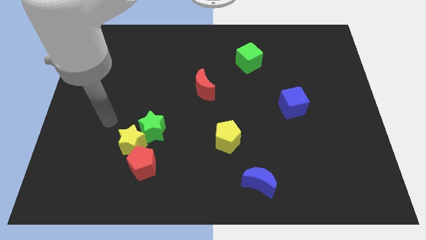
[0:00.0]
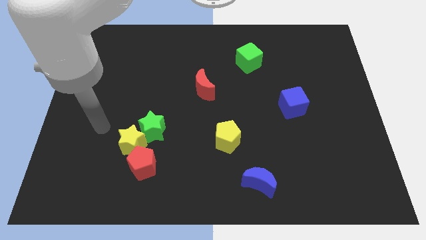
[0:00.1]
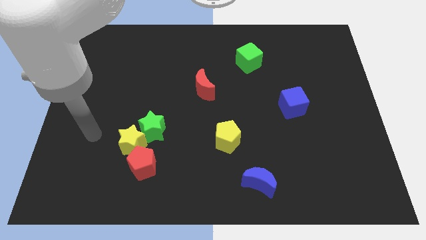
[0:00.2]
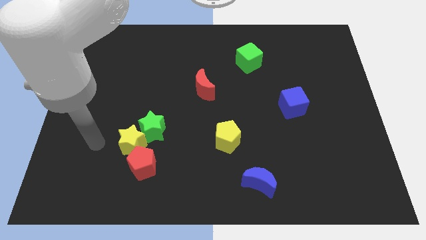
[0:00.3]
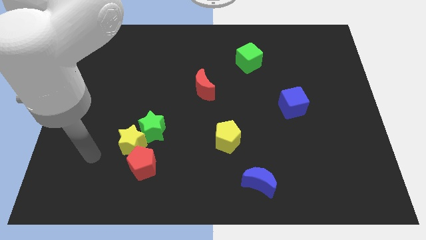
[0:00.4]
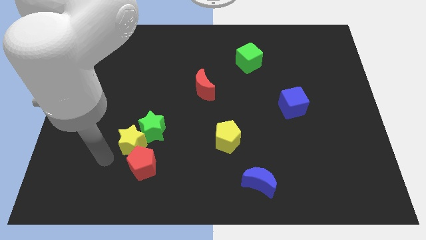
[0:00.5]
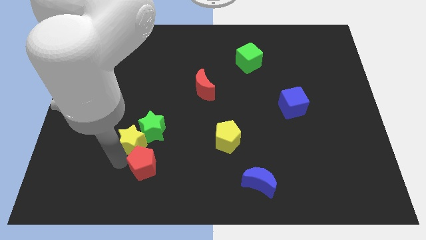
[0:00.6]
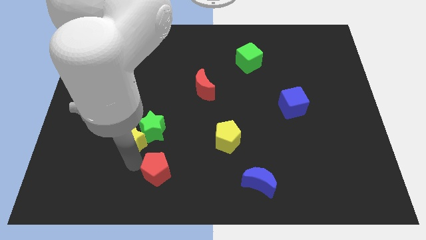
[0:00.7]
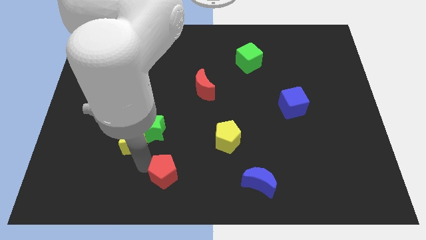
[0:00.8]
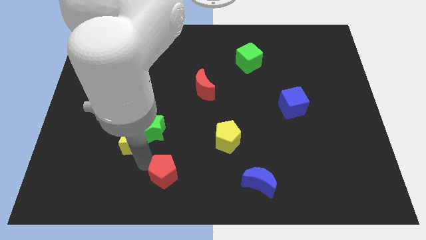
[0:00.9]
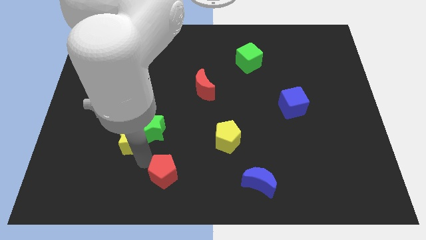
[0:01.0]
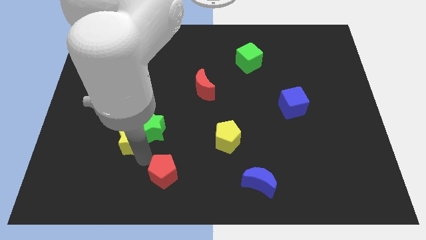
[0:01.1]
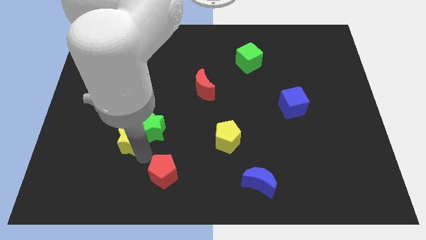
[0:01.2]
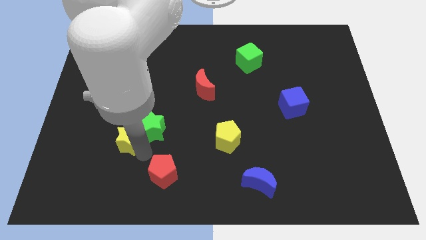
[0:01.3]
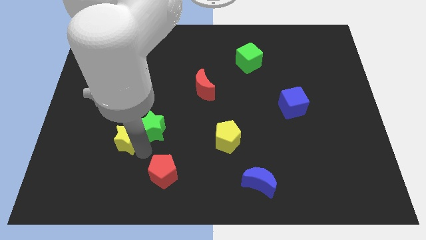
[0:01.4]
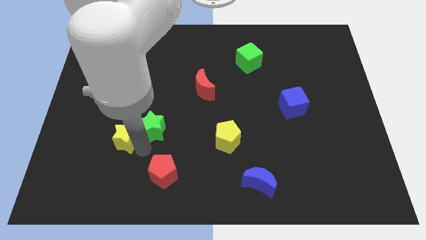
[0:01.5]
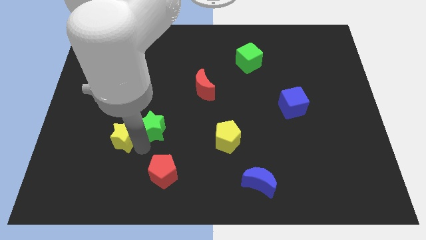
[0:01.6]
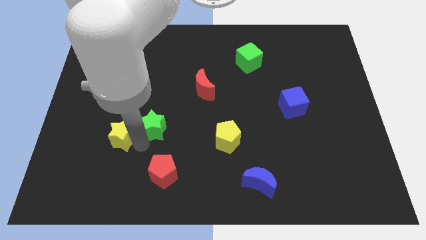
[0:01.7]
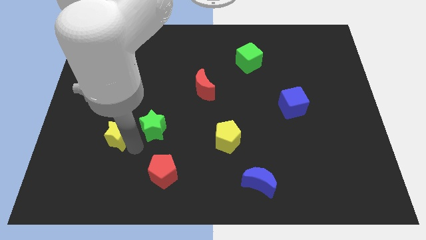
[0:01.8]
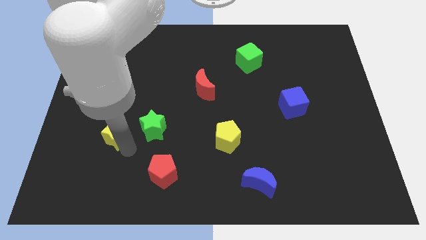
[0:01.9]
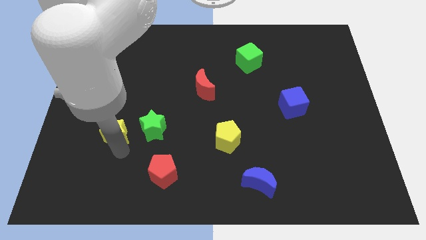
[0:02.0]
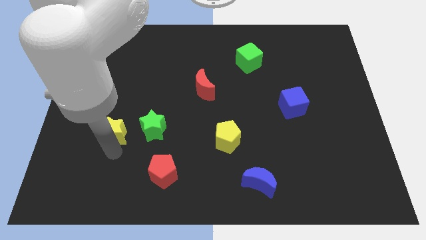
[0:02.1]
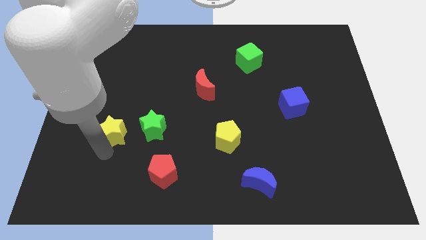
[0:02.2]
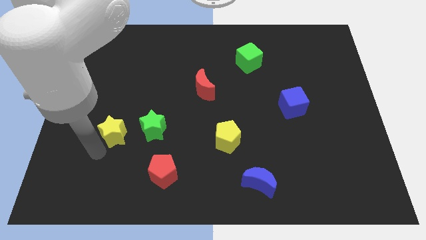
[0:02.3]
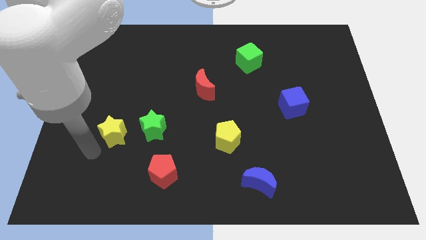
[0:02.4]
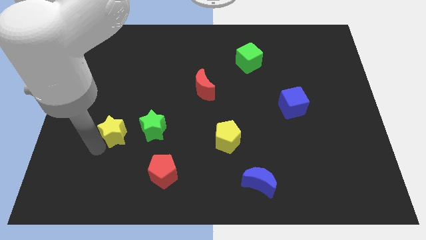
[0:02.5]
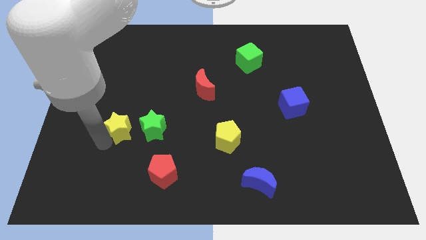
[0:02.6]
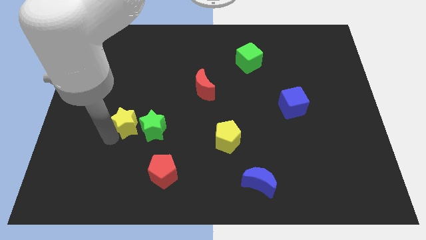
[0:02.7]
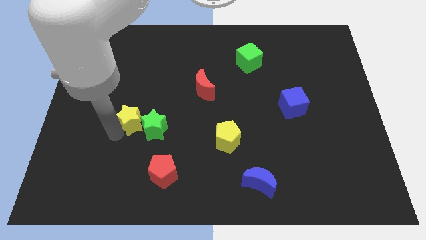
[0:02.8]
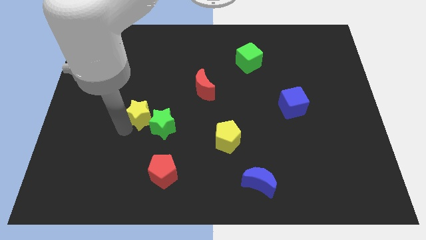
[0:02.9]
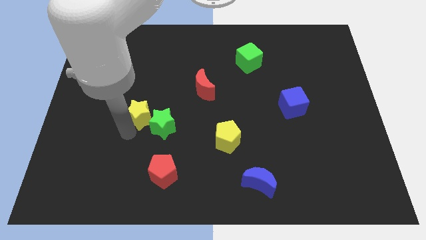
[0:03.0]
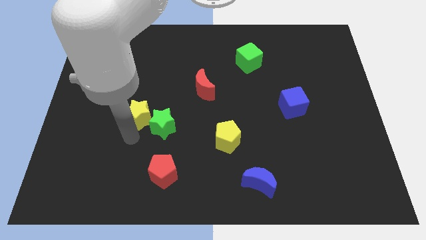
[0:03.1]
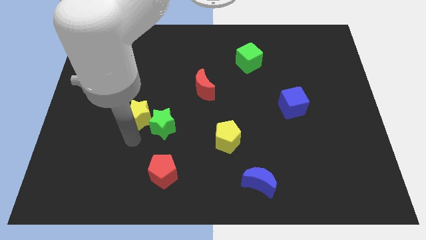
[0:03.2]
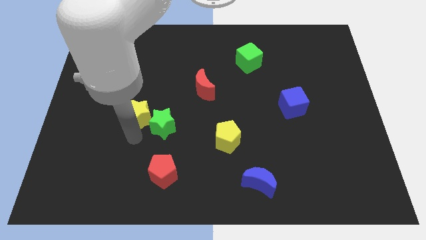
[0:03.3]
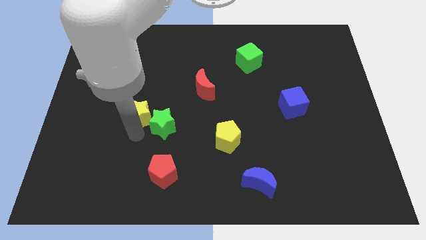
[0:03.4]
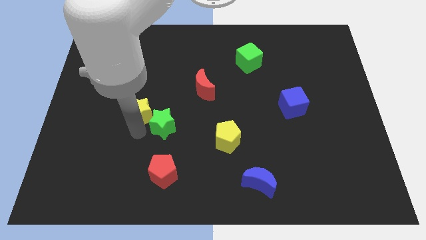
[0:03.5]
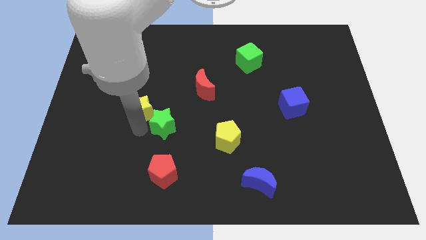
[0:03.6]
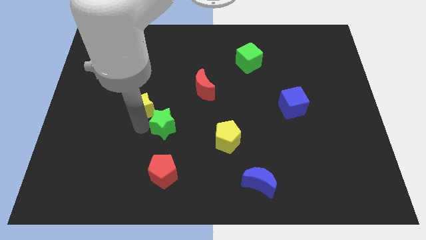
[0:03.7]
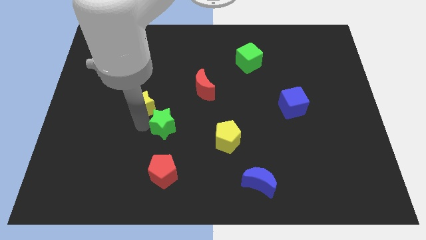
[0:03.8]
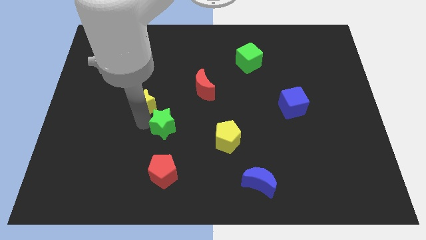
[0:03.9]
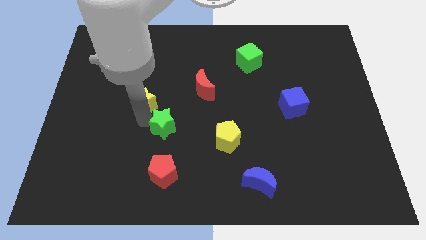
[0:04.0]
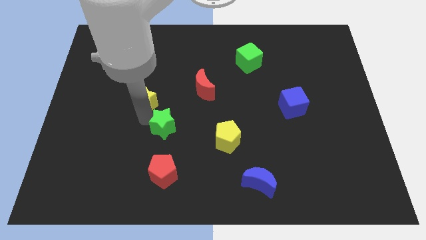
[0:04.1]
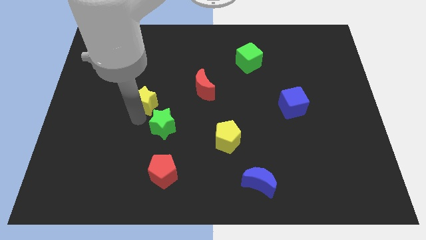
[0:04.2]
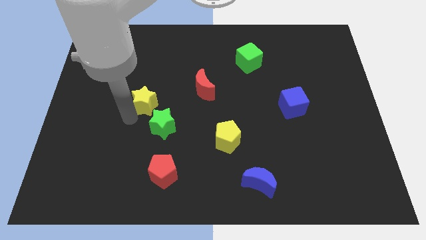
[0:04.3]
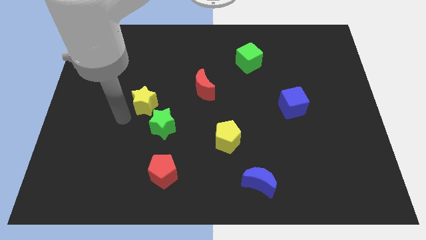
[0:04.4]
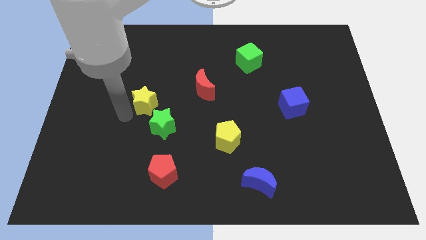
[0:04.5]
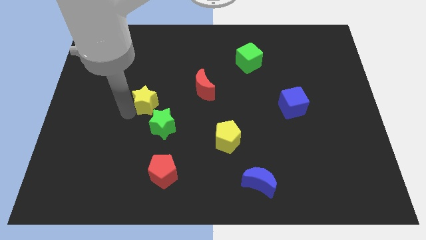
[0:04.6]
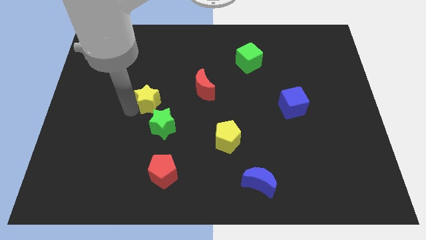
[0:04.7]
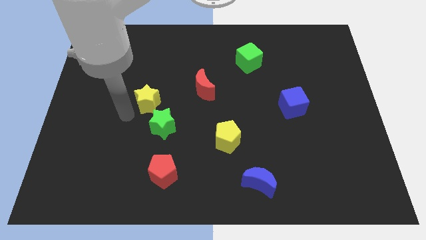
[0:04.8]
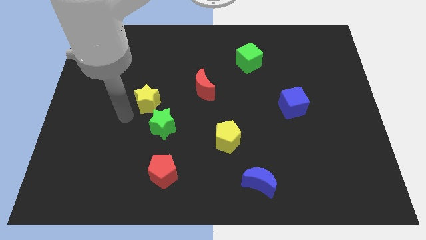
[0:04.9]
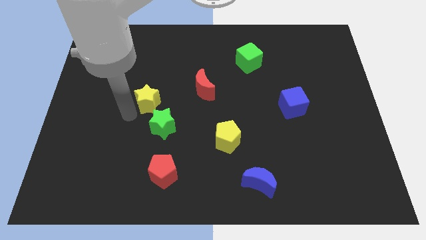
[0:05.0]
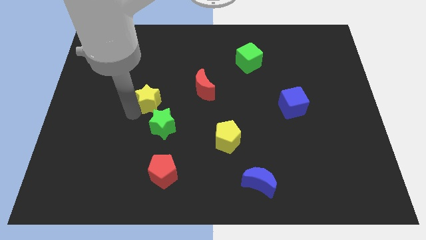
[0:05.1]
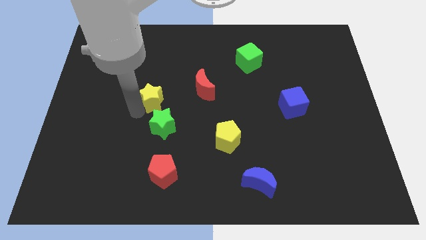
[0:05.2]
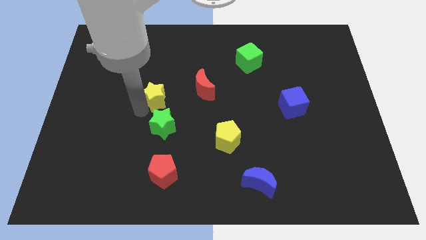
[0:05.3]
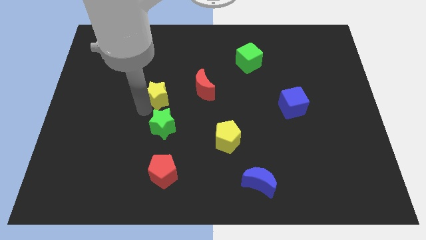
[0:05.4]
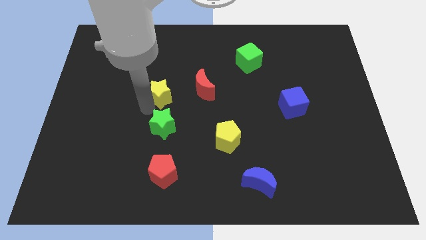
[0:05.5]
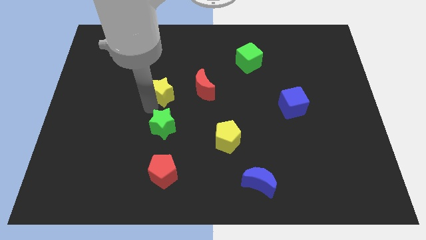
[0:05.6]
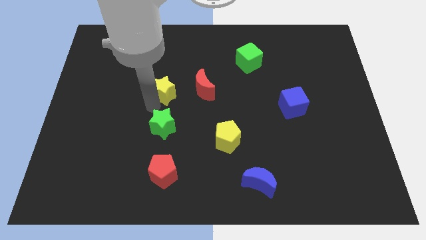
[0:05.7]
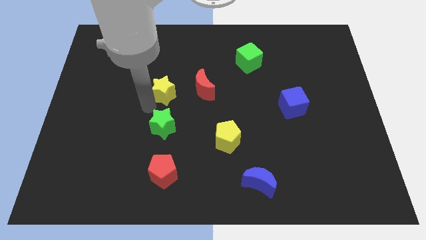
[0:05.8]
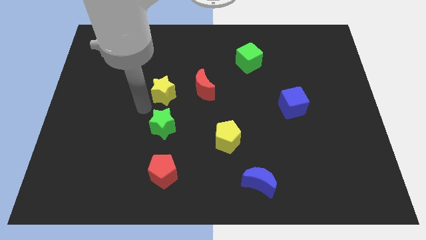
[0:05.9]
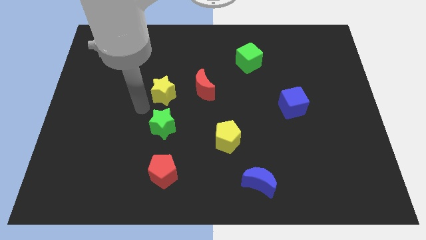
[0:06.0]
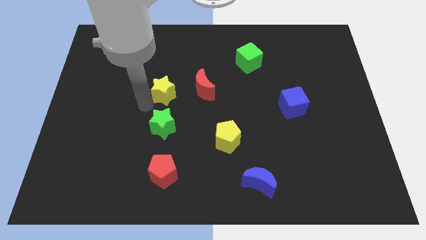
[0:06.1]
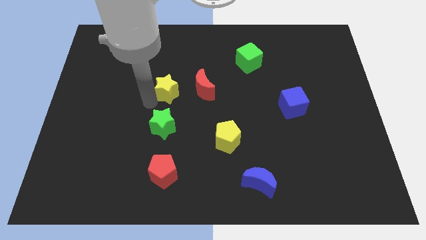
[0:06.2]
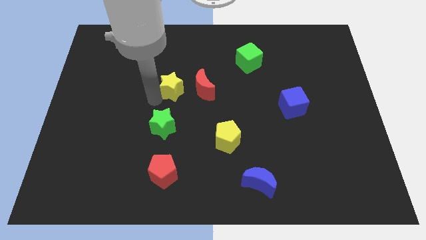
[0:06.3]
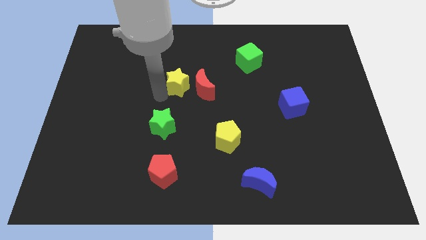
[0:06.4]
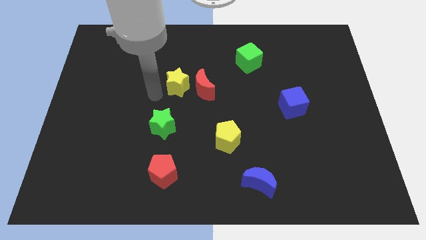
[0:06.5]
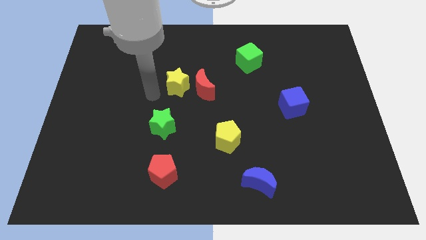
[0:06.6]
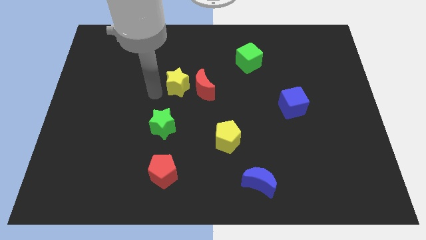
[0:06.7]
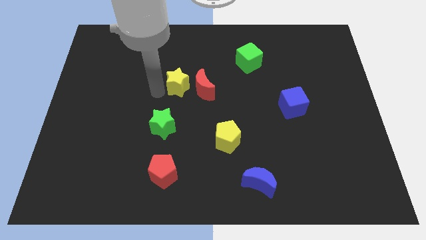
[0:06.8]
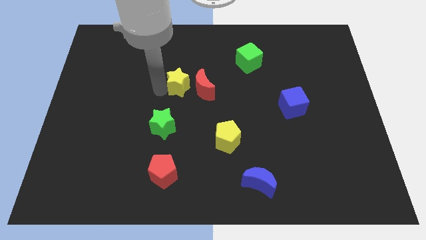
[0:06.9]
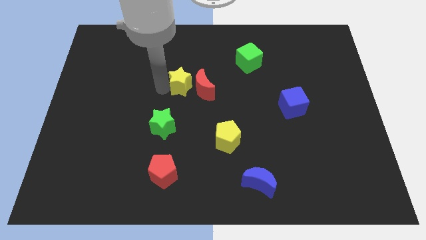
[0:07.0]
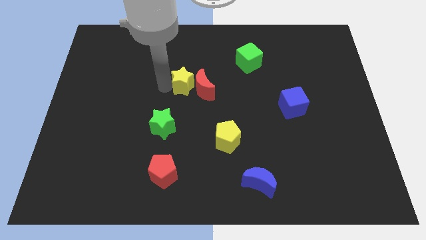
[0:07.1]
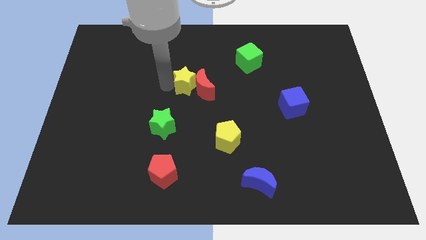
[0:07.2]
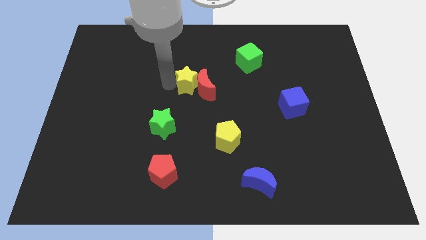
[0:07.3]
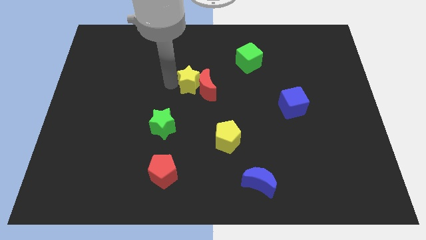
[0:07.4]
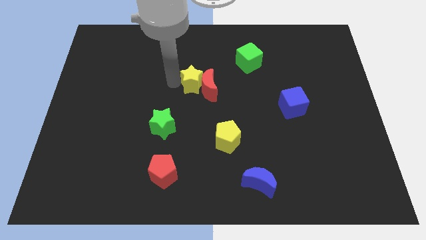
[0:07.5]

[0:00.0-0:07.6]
slide the yellow star upwards and then right

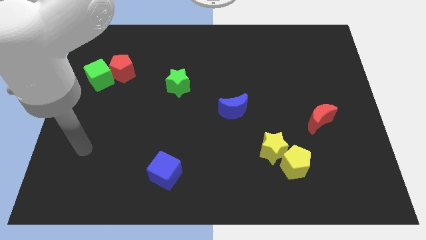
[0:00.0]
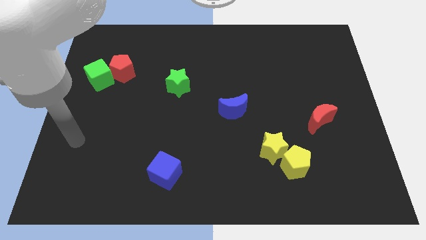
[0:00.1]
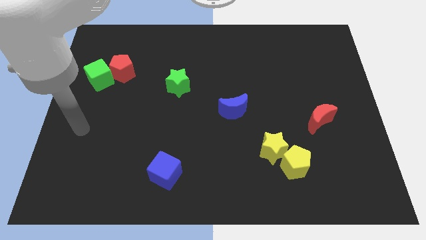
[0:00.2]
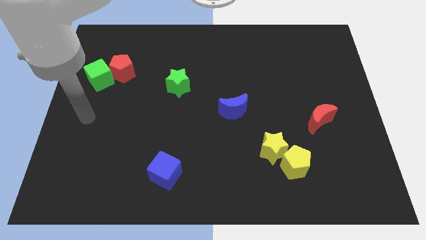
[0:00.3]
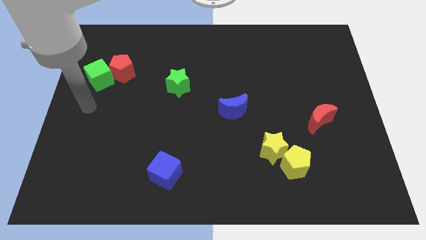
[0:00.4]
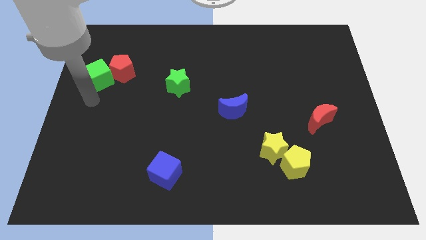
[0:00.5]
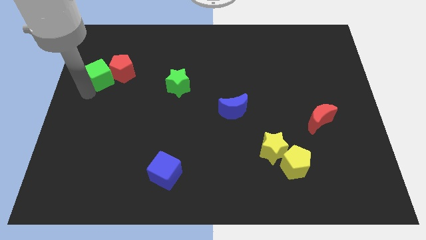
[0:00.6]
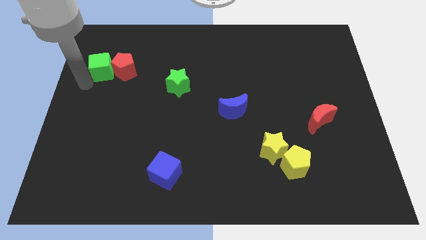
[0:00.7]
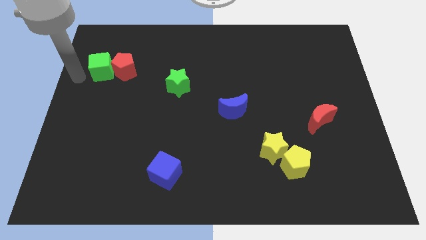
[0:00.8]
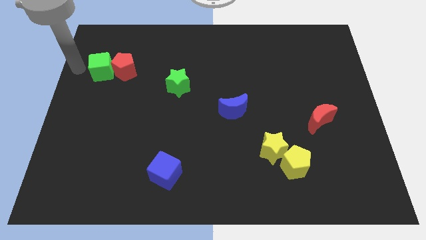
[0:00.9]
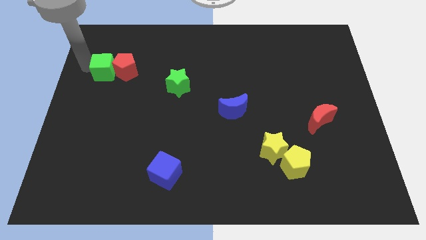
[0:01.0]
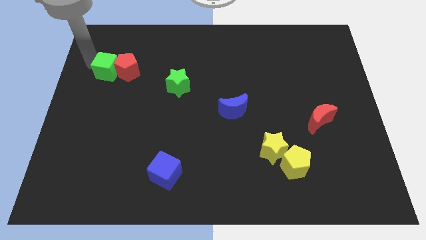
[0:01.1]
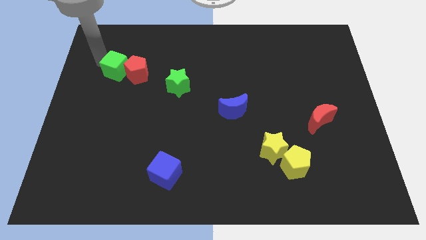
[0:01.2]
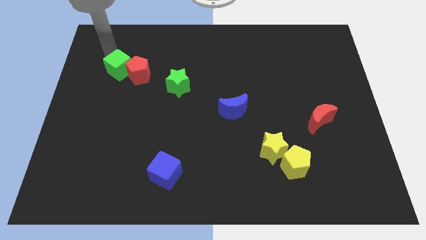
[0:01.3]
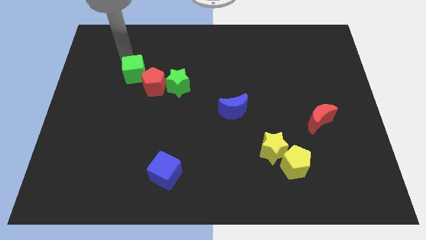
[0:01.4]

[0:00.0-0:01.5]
slide the red pentagon slightly down and then to the right
